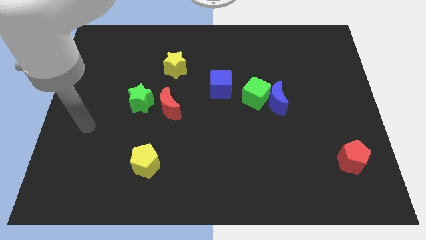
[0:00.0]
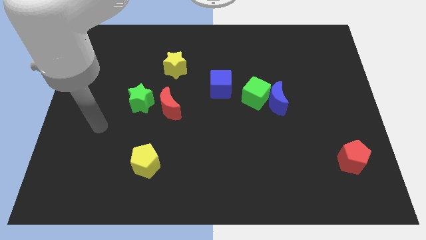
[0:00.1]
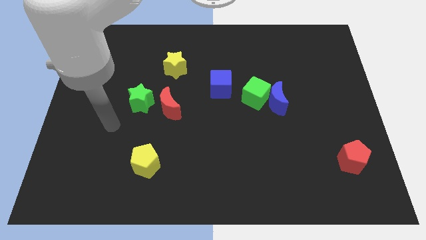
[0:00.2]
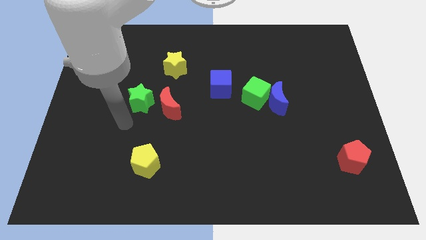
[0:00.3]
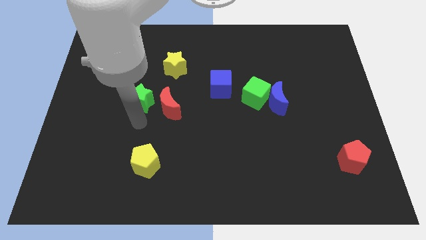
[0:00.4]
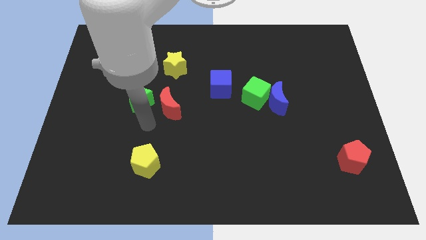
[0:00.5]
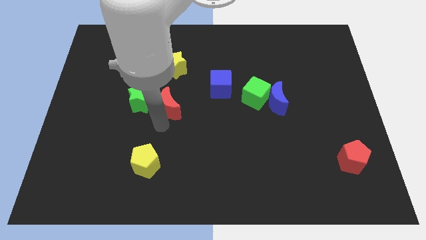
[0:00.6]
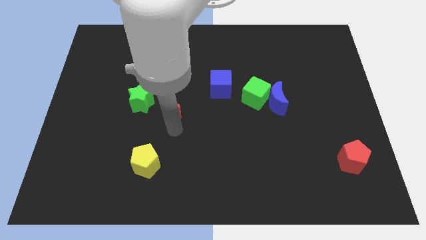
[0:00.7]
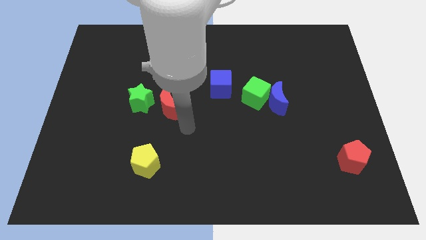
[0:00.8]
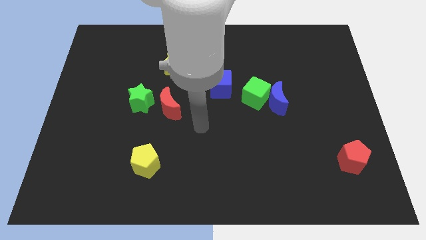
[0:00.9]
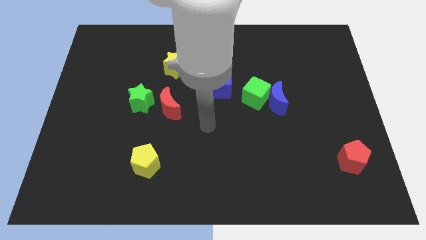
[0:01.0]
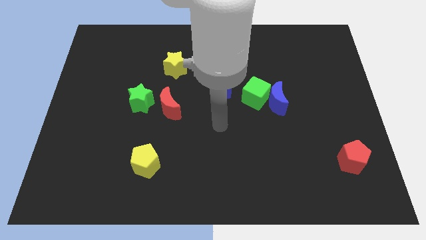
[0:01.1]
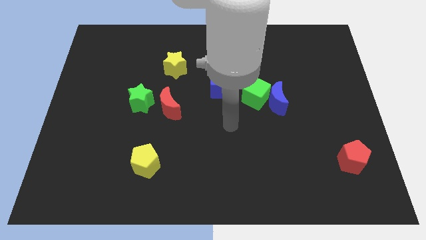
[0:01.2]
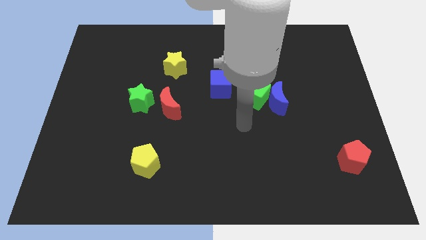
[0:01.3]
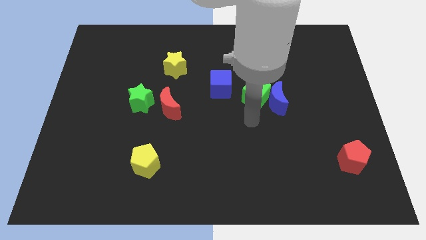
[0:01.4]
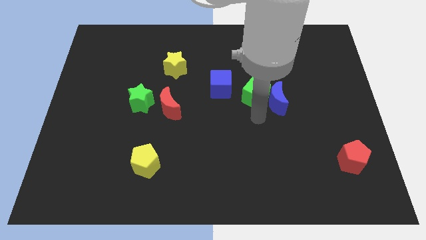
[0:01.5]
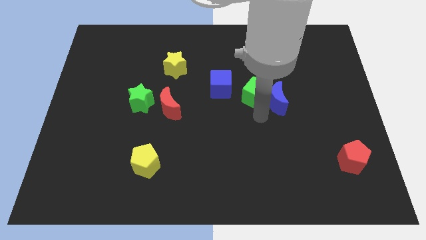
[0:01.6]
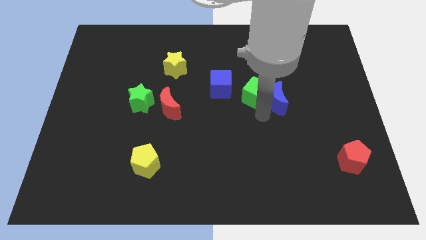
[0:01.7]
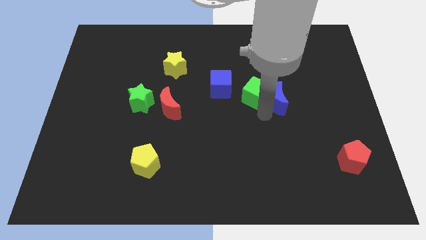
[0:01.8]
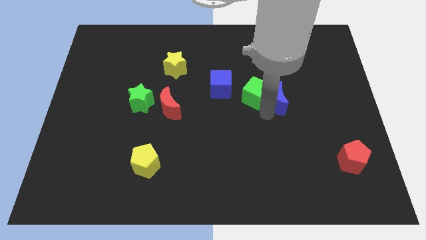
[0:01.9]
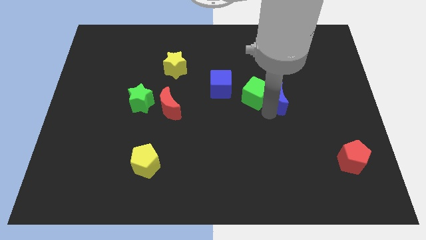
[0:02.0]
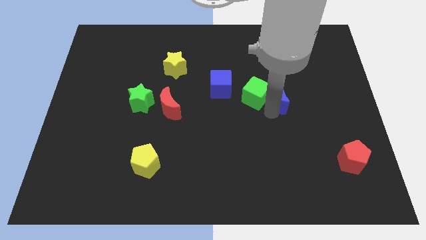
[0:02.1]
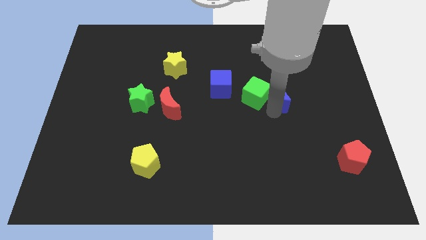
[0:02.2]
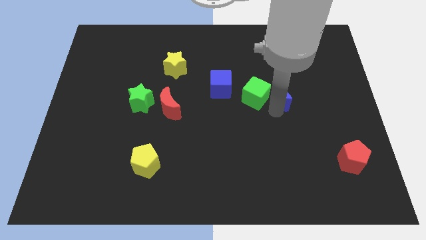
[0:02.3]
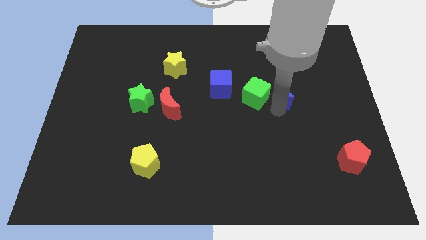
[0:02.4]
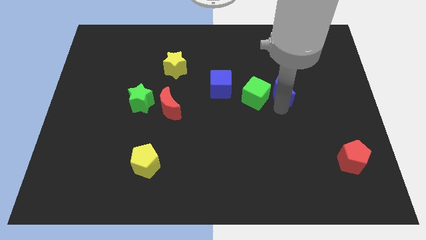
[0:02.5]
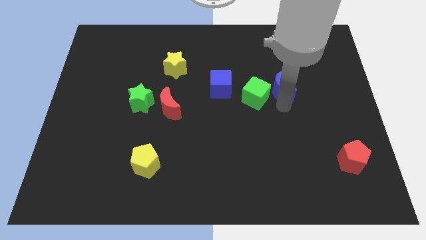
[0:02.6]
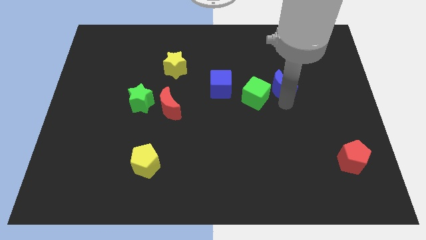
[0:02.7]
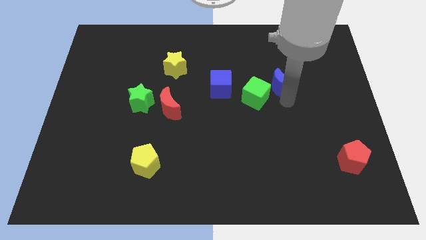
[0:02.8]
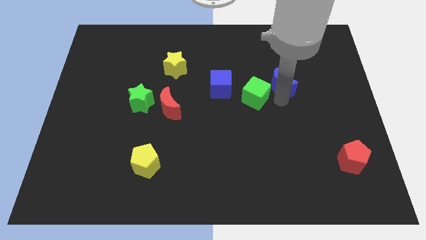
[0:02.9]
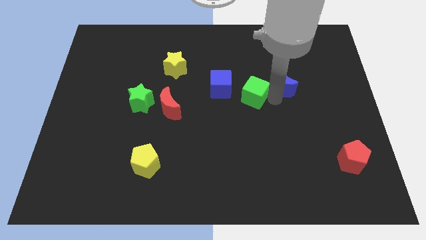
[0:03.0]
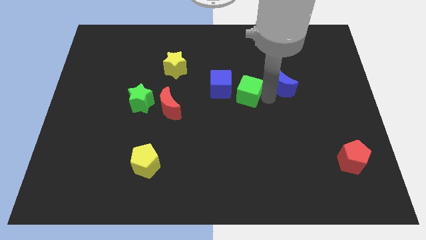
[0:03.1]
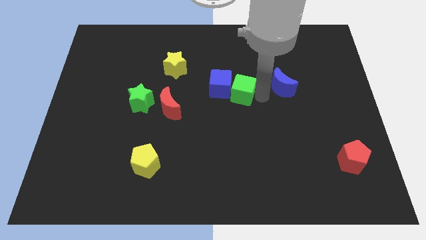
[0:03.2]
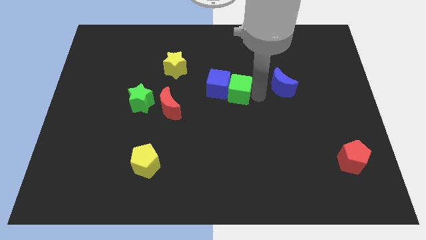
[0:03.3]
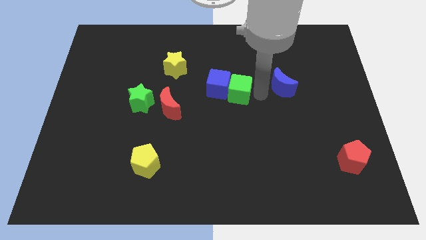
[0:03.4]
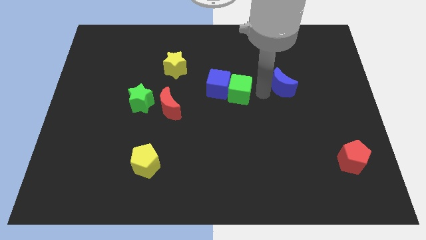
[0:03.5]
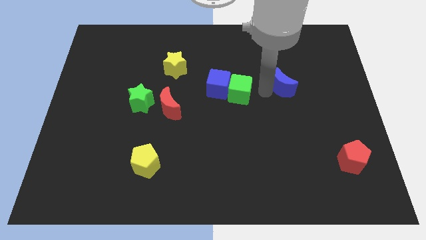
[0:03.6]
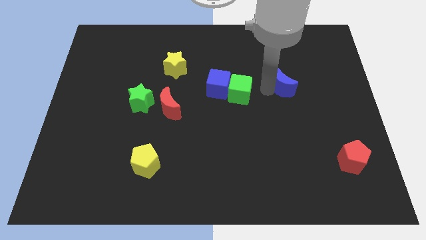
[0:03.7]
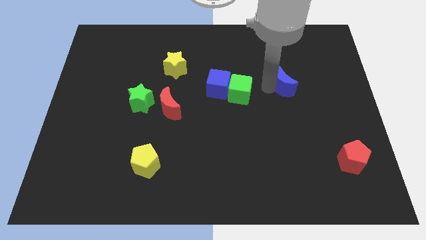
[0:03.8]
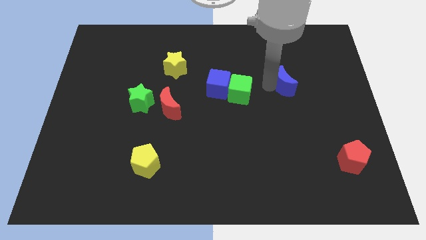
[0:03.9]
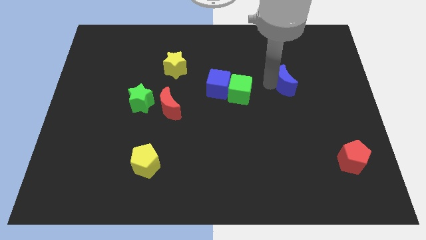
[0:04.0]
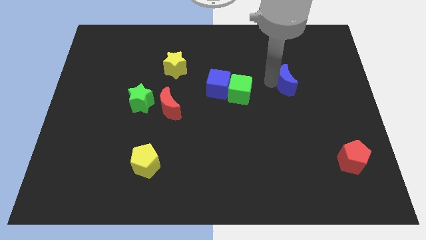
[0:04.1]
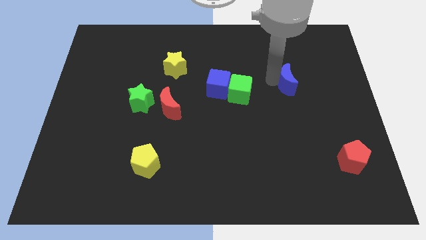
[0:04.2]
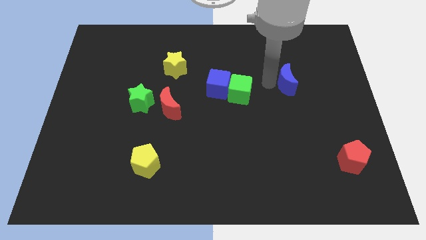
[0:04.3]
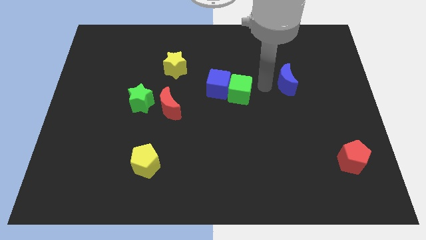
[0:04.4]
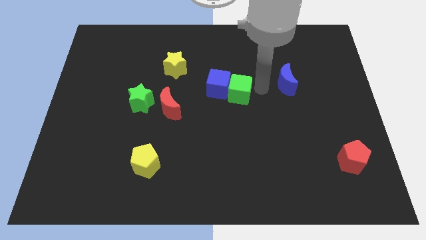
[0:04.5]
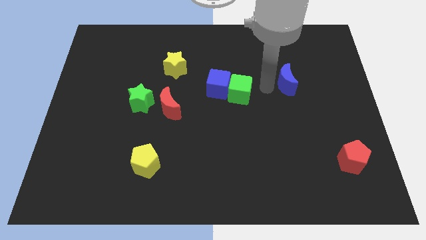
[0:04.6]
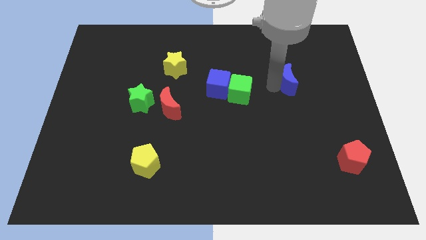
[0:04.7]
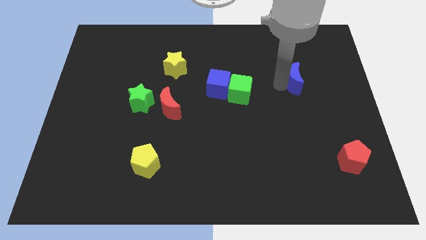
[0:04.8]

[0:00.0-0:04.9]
slightly move the blue moon up and right diagonally

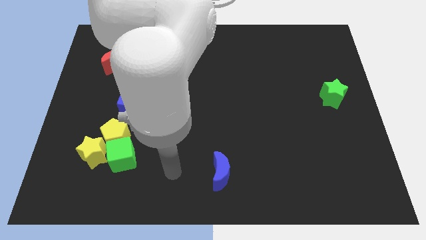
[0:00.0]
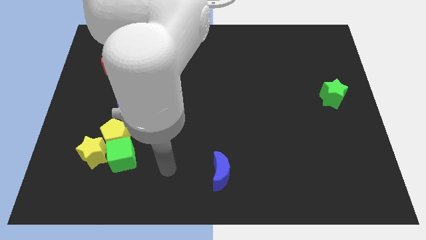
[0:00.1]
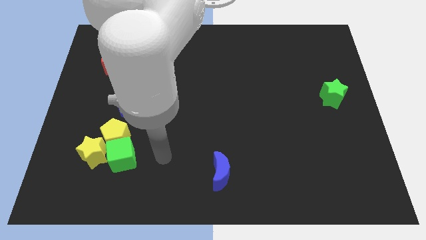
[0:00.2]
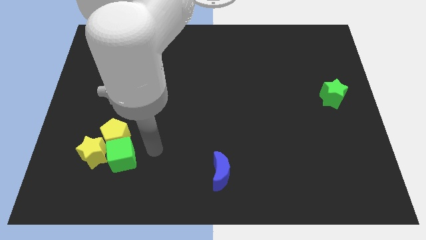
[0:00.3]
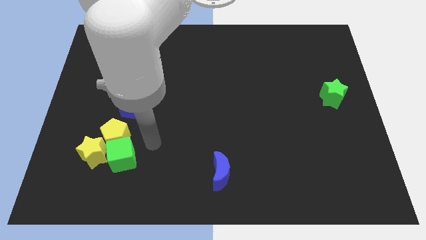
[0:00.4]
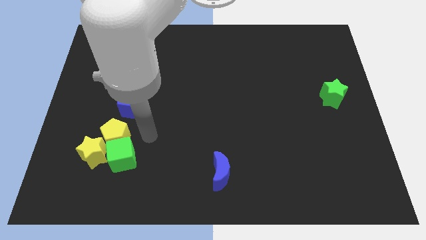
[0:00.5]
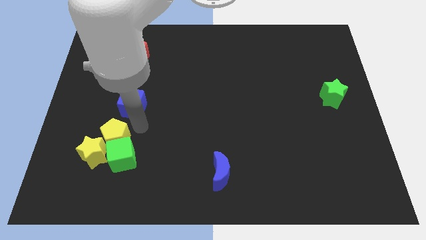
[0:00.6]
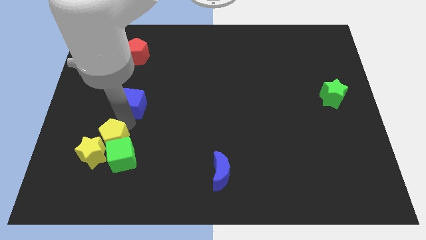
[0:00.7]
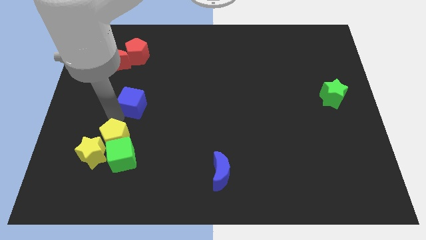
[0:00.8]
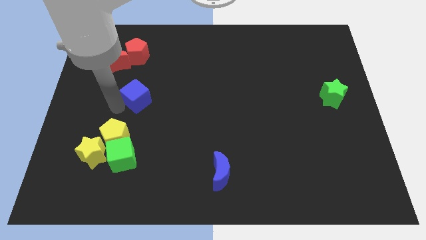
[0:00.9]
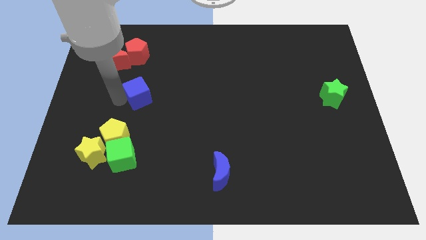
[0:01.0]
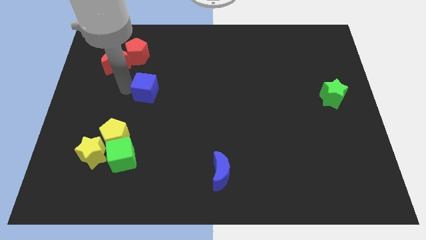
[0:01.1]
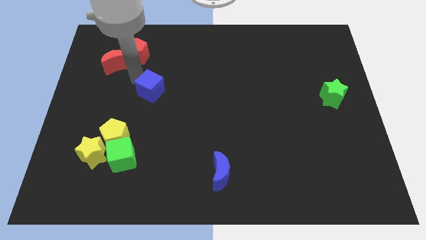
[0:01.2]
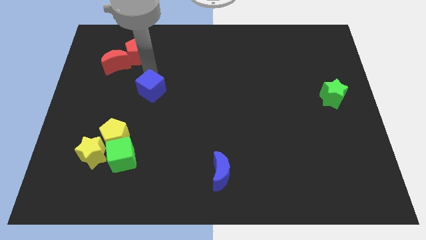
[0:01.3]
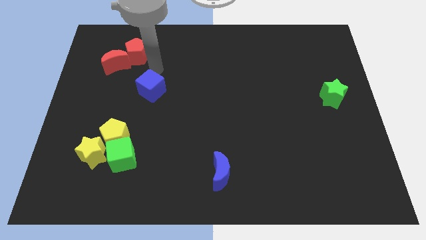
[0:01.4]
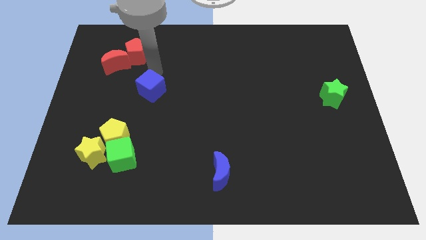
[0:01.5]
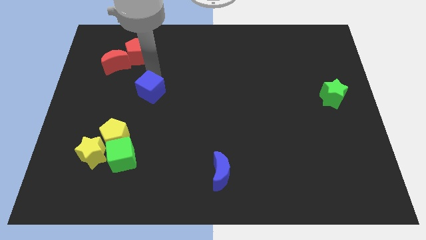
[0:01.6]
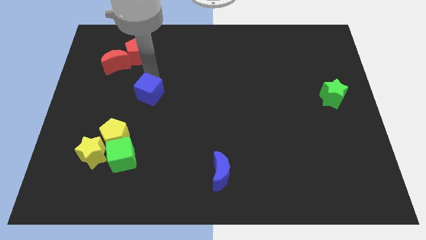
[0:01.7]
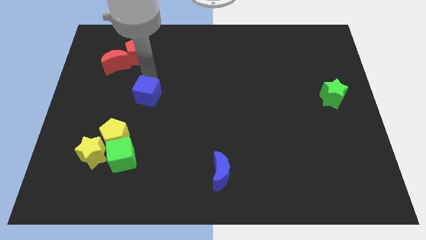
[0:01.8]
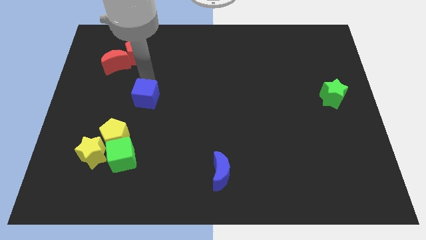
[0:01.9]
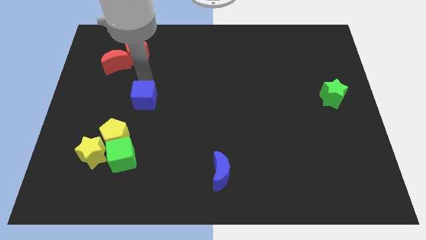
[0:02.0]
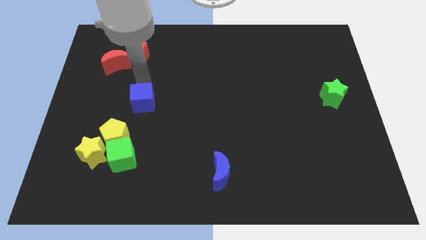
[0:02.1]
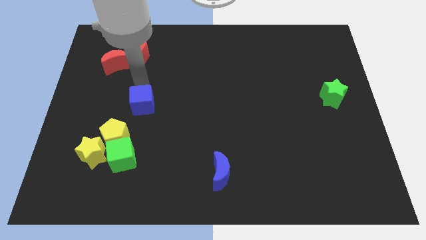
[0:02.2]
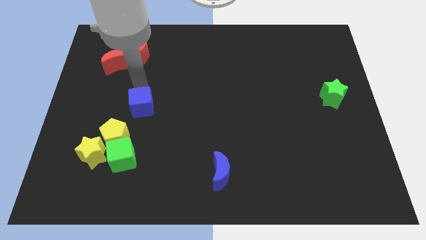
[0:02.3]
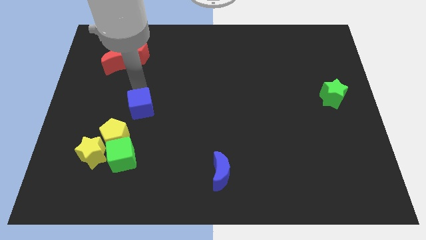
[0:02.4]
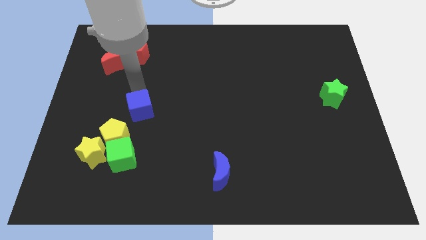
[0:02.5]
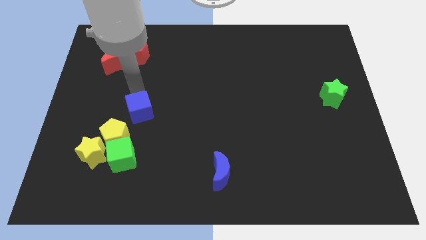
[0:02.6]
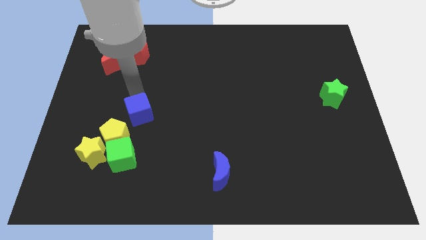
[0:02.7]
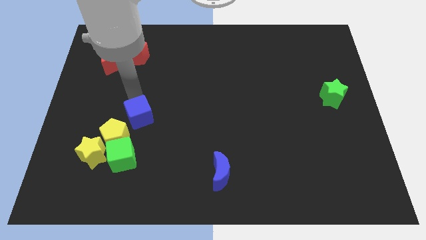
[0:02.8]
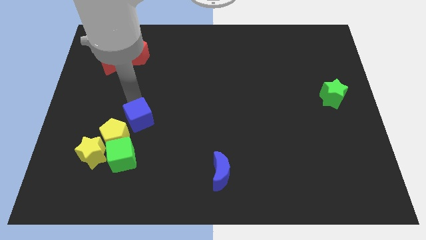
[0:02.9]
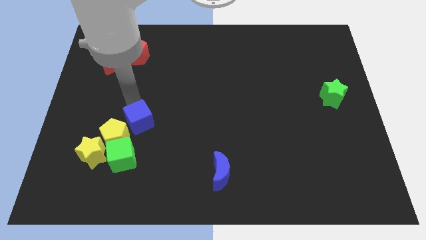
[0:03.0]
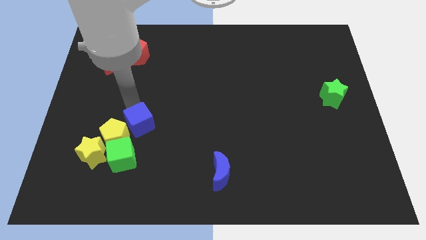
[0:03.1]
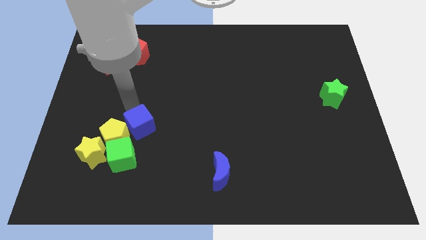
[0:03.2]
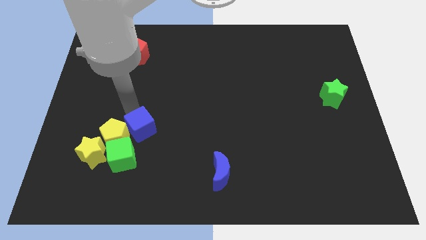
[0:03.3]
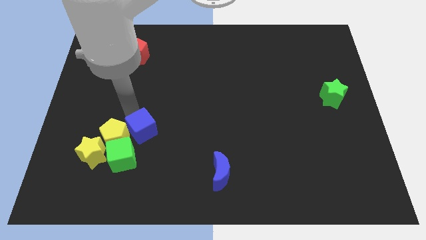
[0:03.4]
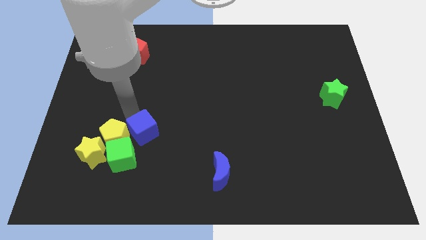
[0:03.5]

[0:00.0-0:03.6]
slightly move the blue cube down and then right
